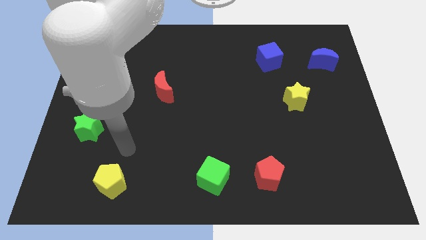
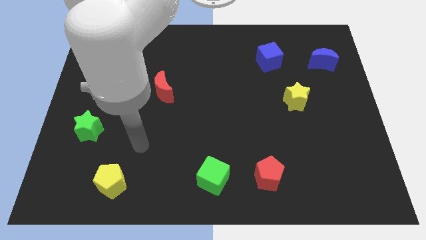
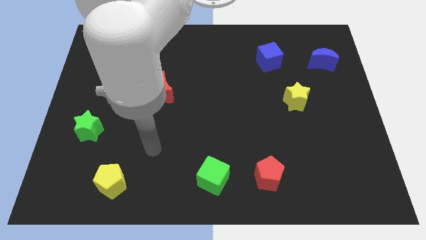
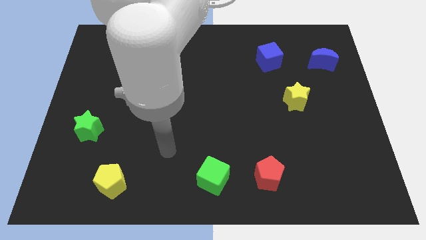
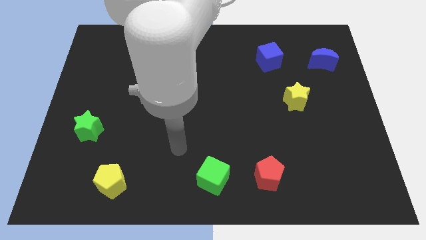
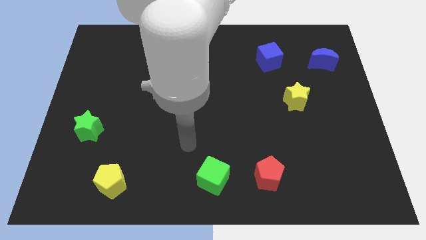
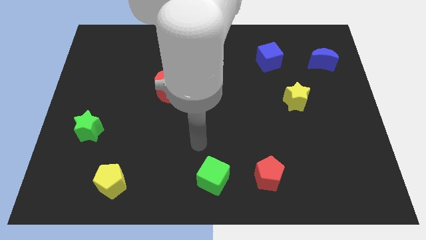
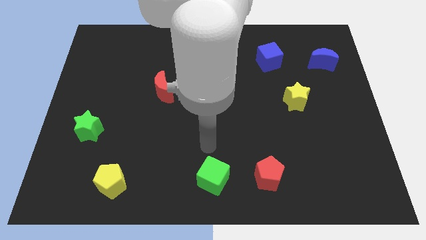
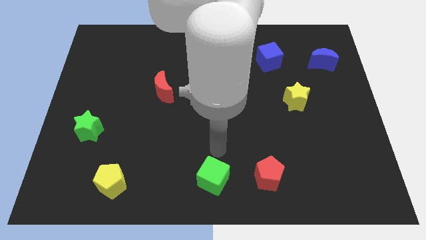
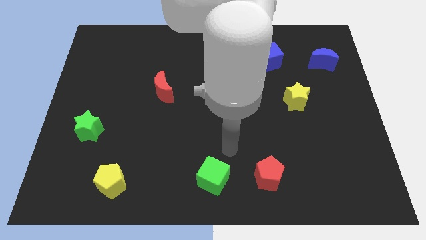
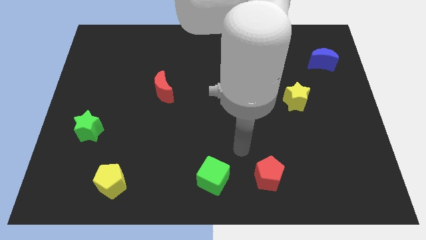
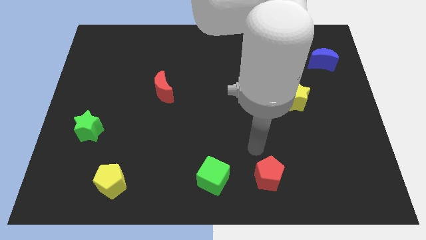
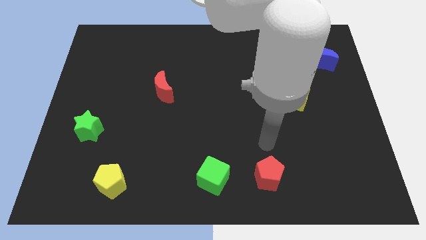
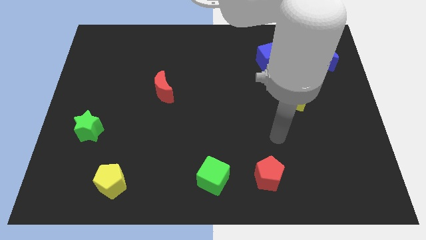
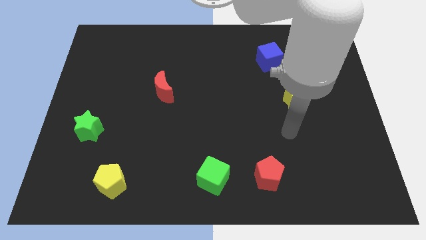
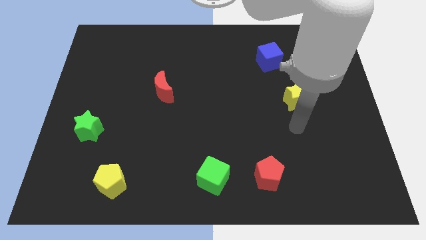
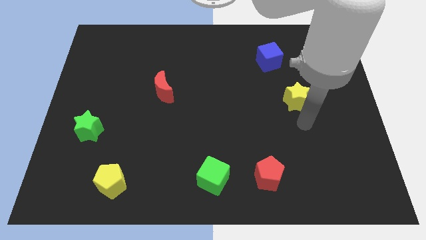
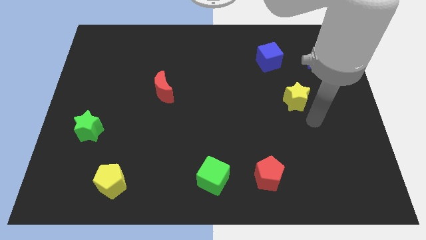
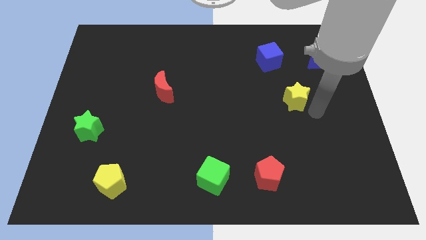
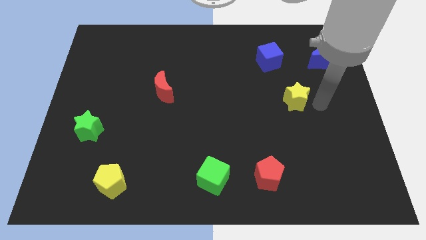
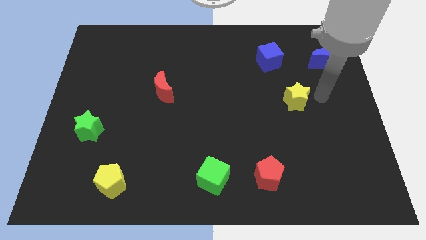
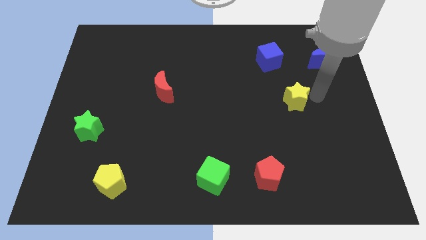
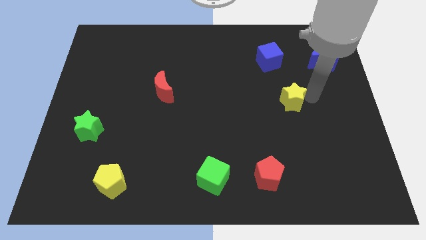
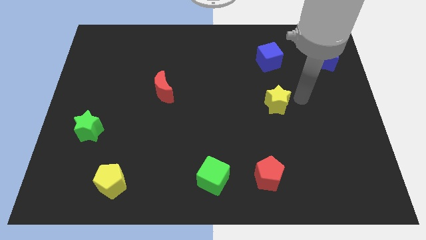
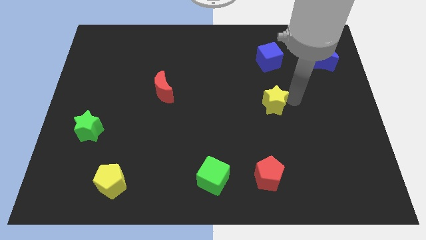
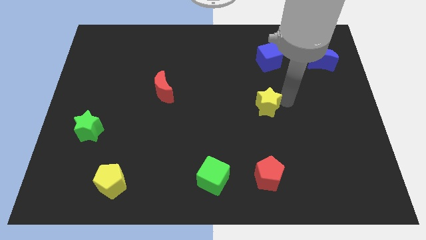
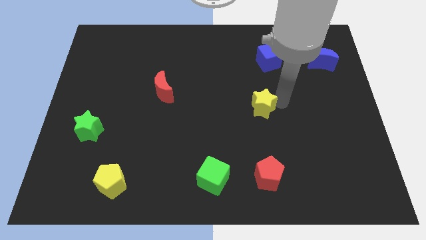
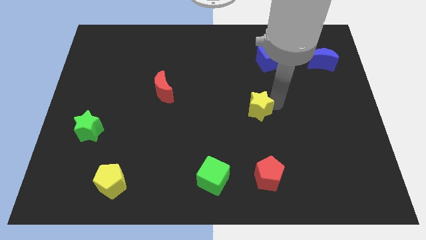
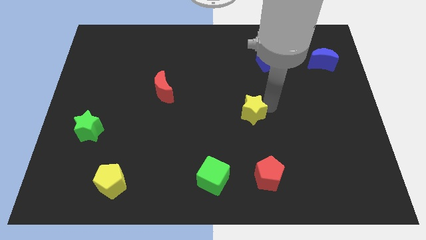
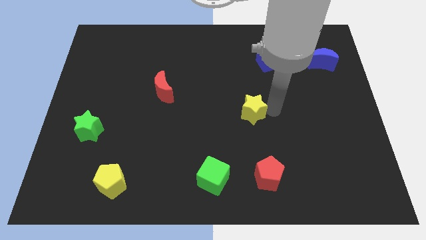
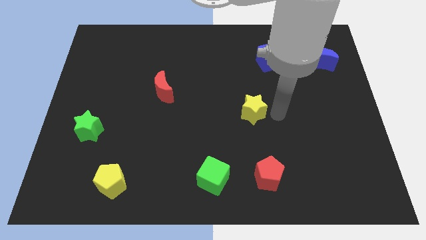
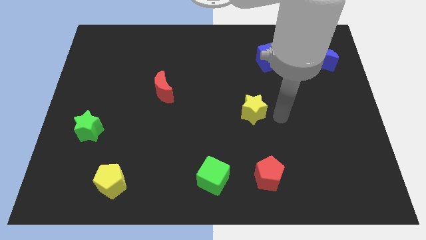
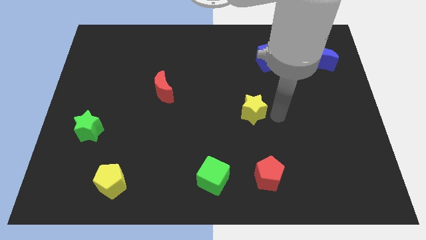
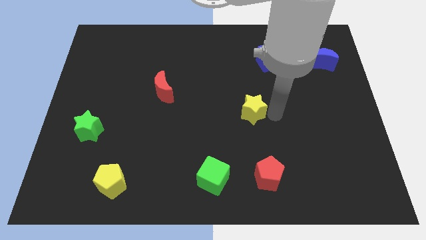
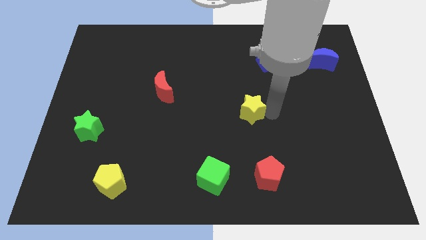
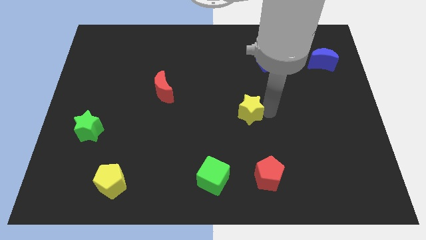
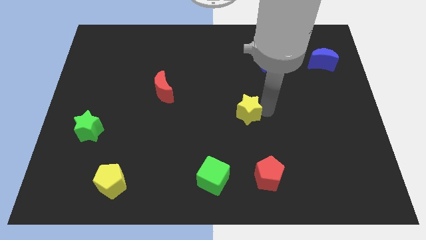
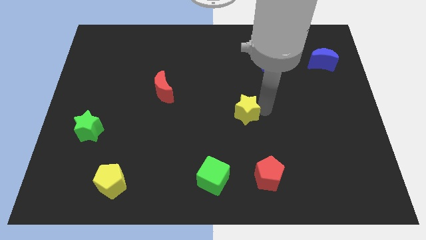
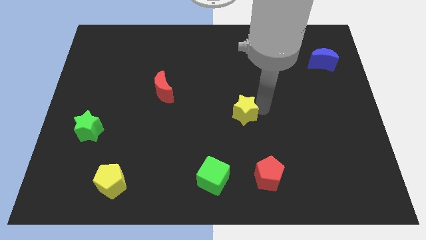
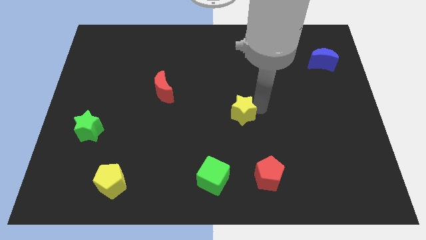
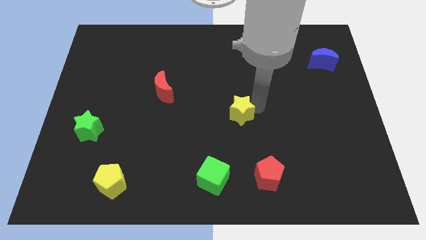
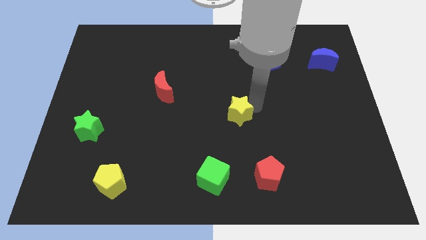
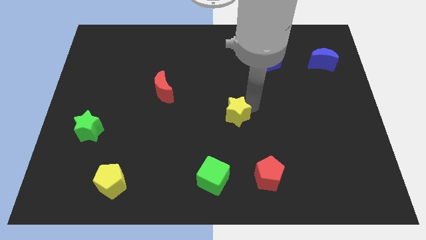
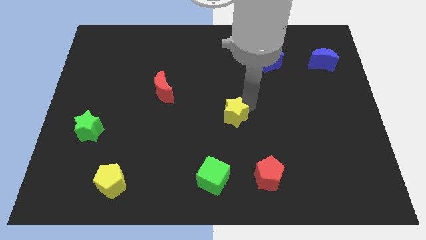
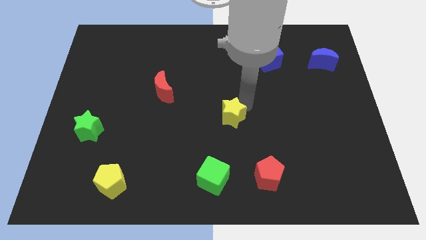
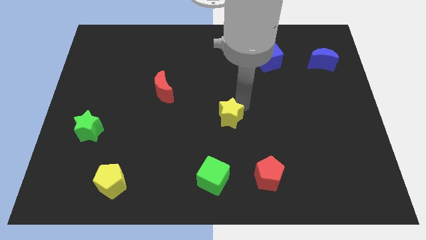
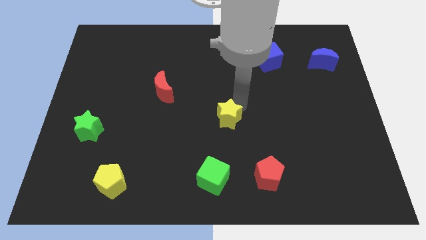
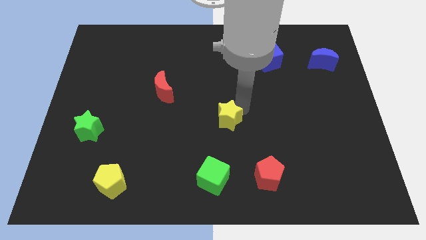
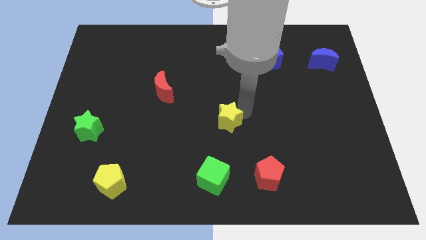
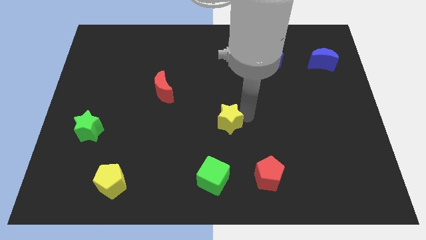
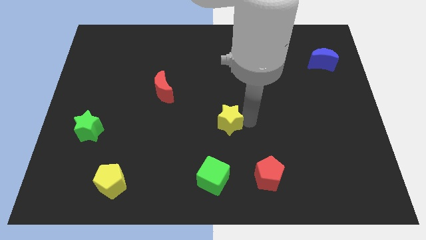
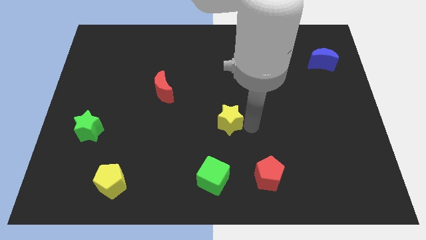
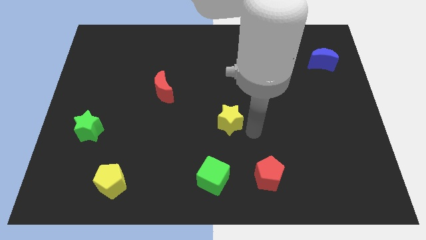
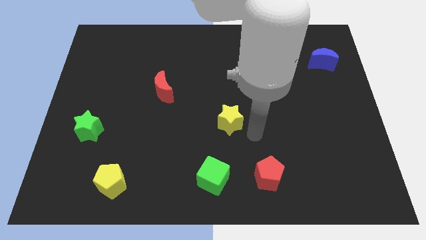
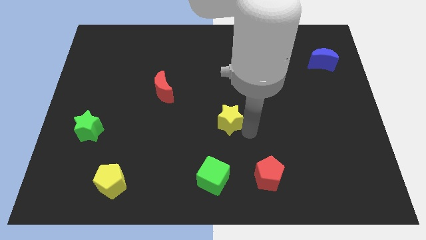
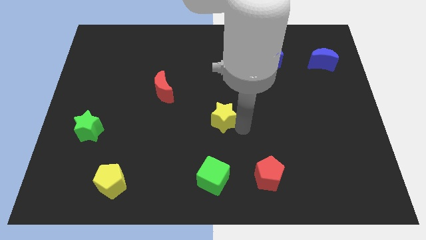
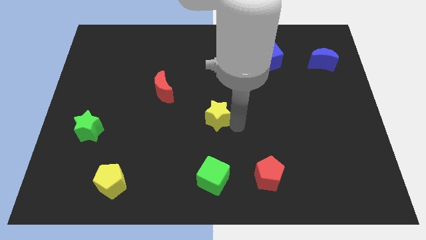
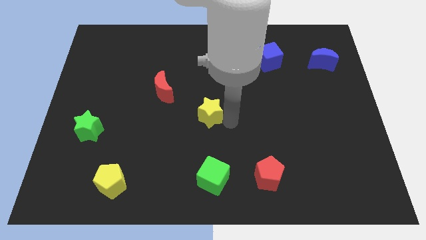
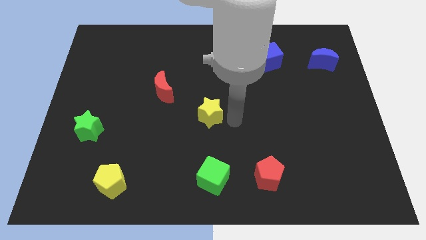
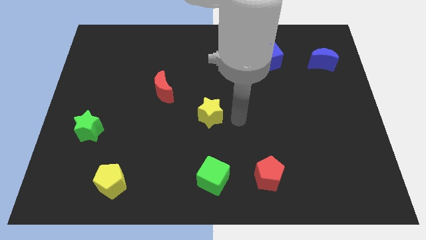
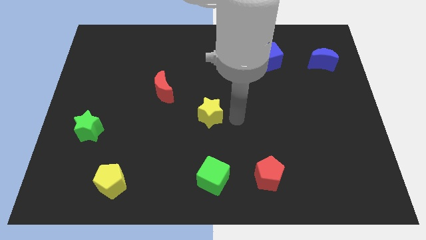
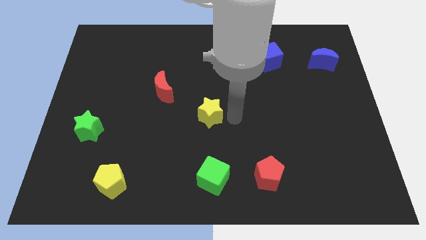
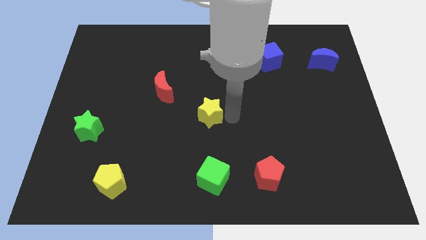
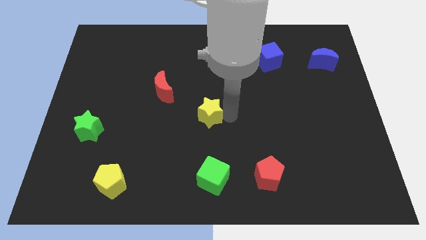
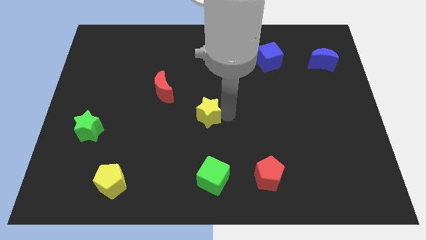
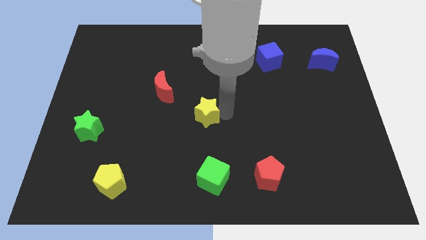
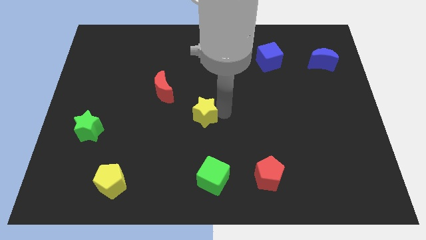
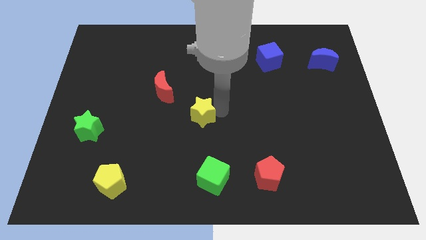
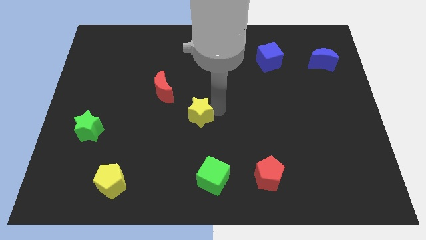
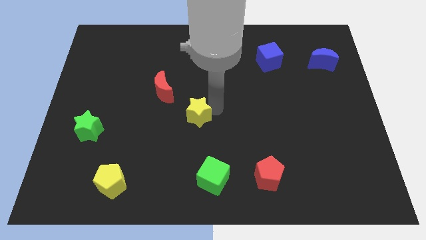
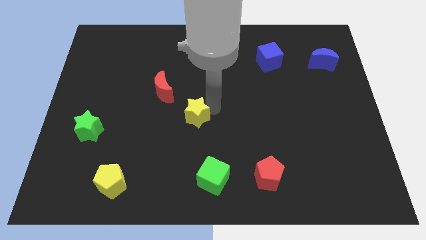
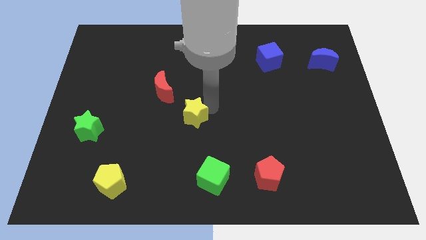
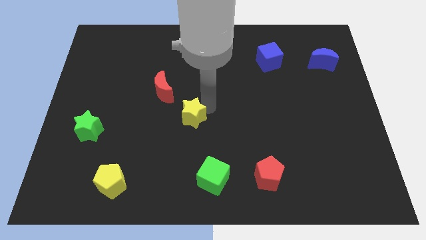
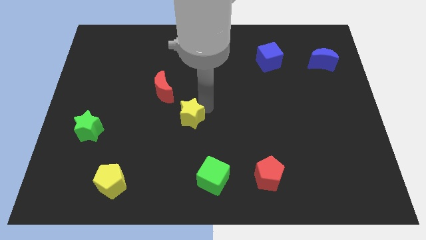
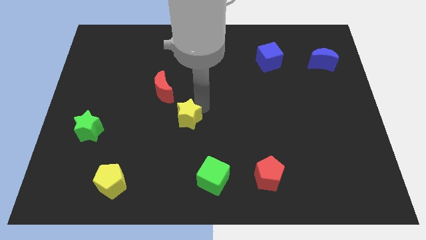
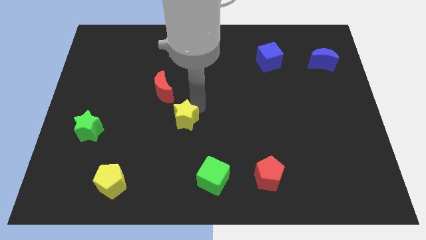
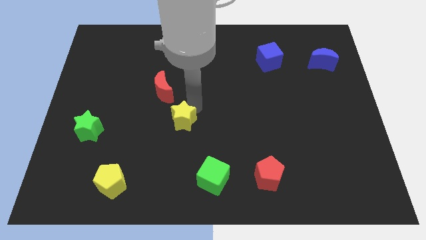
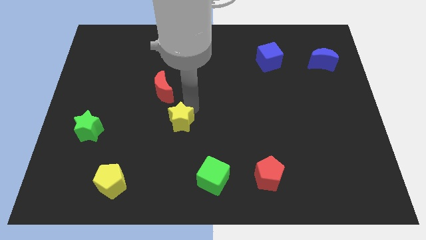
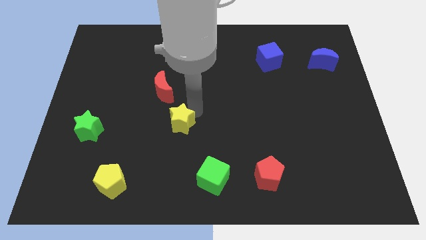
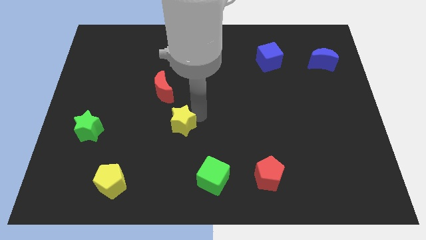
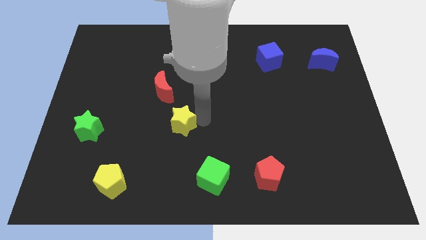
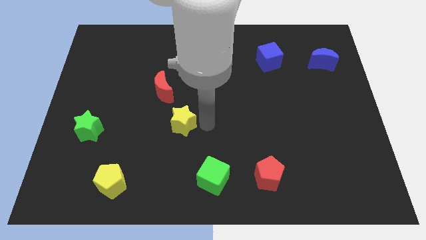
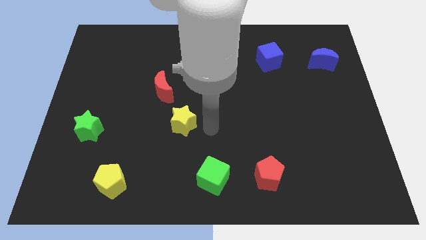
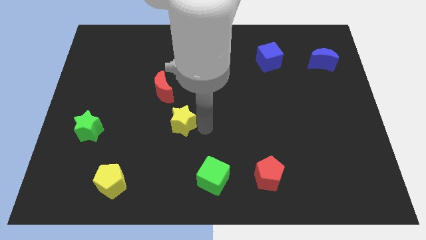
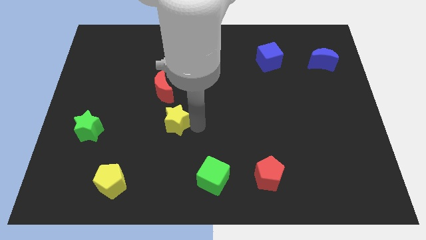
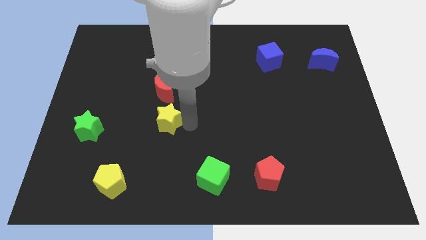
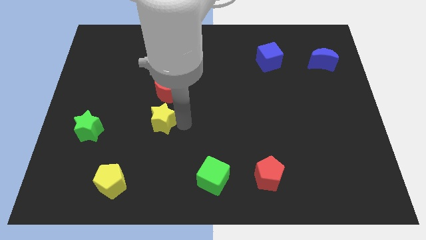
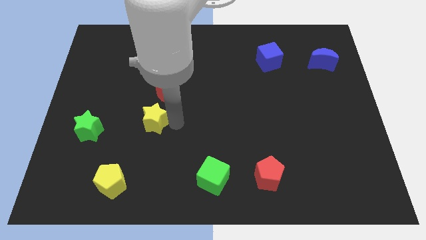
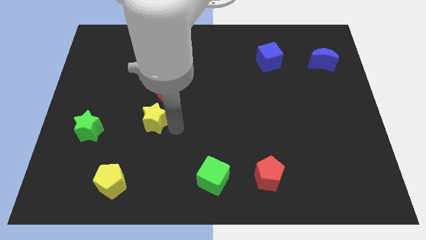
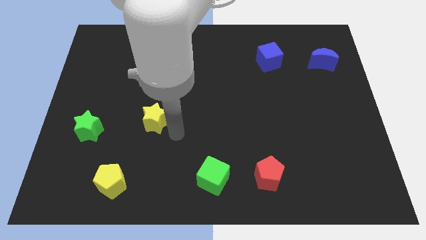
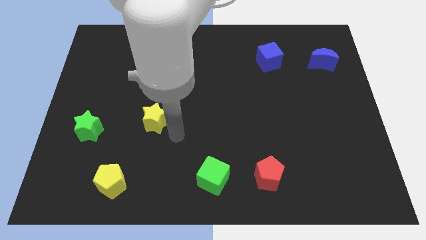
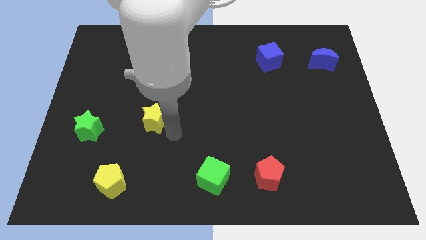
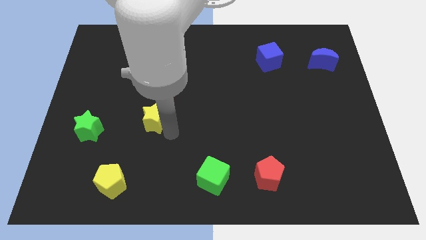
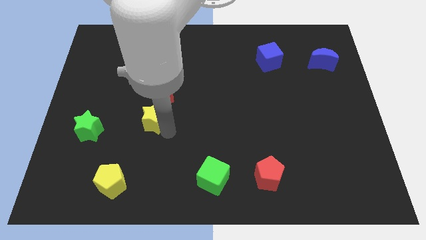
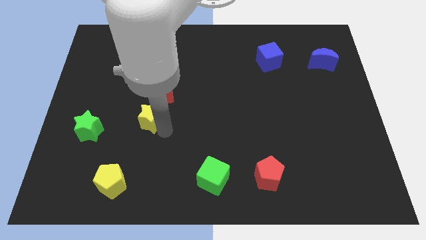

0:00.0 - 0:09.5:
put the yellow star to the bottom left of the red moon
